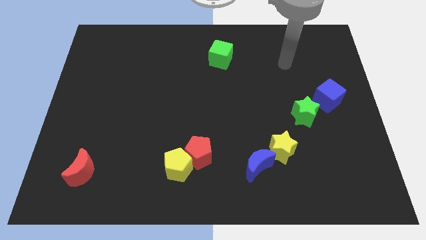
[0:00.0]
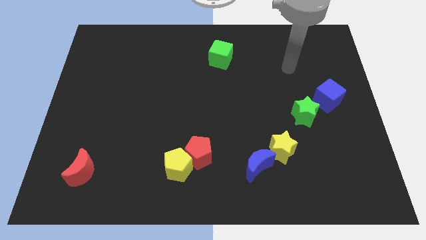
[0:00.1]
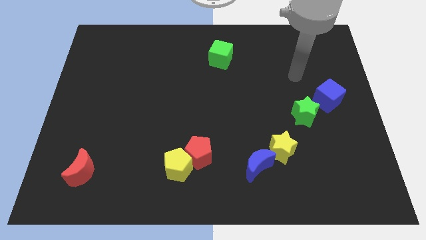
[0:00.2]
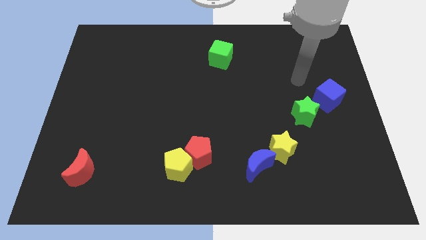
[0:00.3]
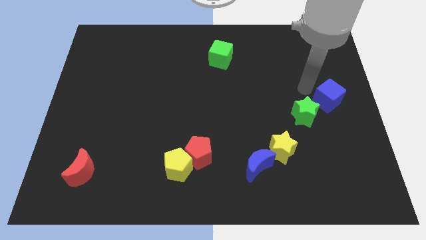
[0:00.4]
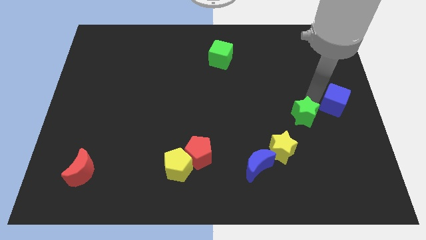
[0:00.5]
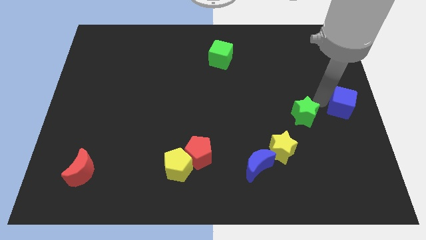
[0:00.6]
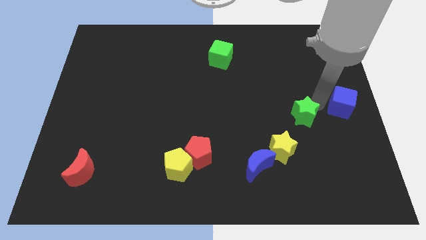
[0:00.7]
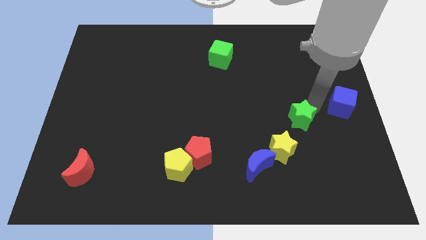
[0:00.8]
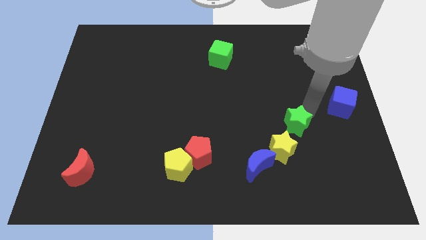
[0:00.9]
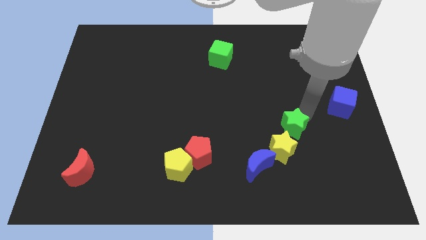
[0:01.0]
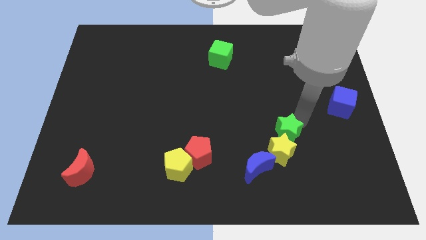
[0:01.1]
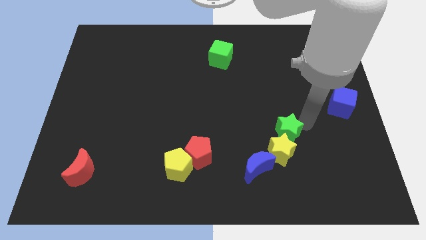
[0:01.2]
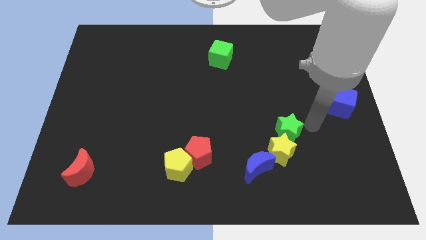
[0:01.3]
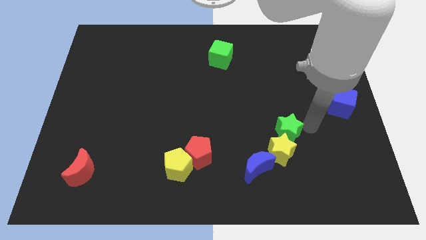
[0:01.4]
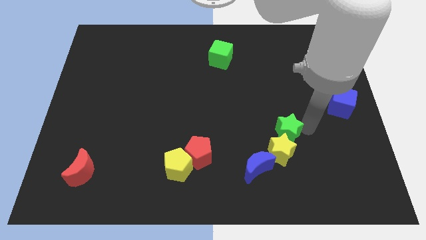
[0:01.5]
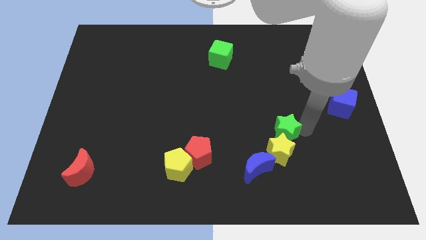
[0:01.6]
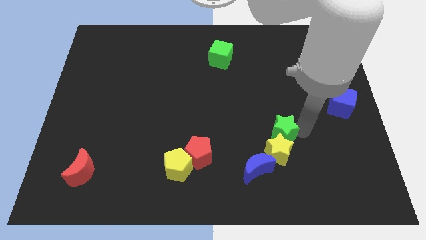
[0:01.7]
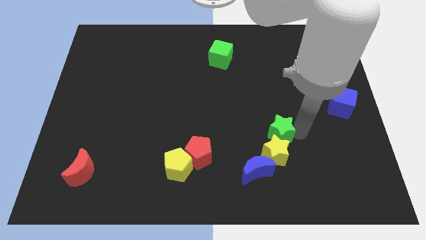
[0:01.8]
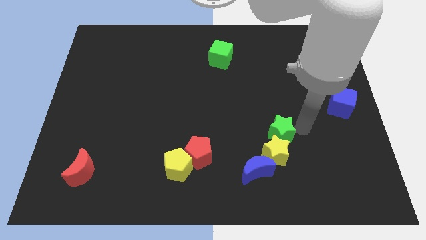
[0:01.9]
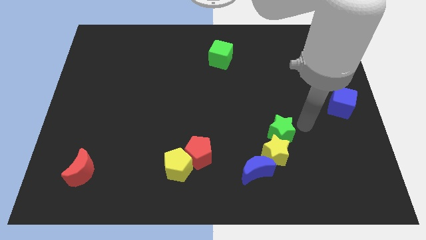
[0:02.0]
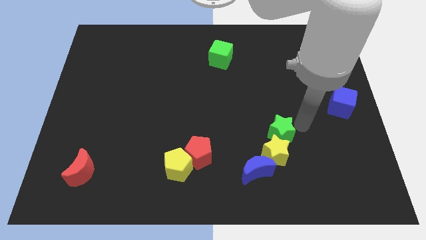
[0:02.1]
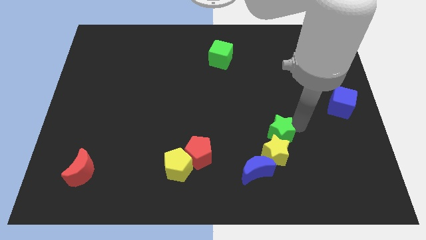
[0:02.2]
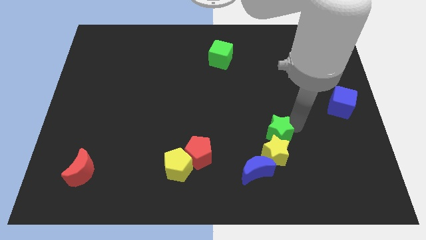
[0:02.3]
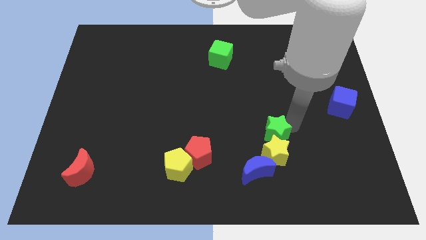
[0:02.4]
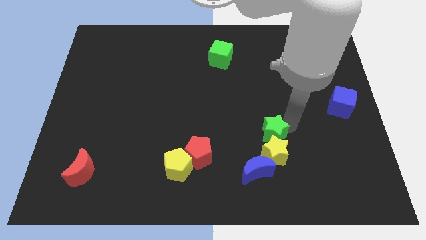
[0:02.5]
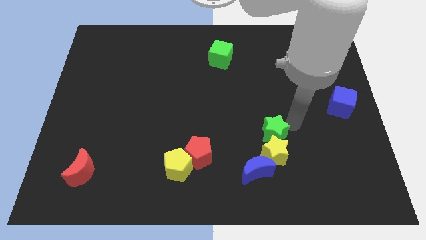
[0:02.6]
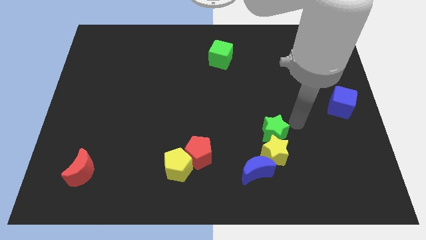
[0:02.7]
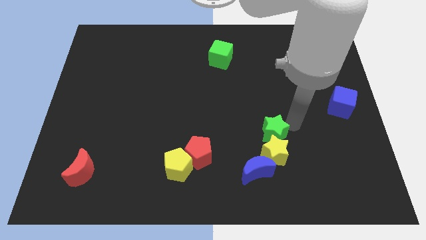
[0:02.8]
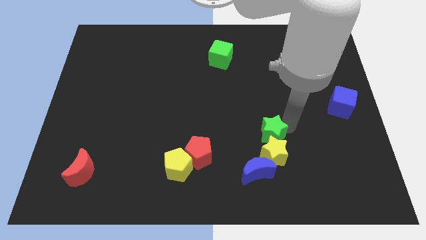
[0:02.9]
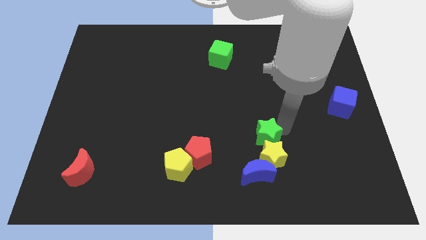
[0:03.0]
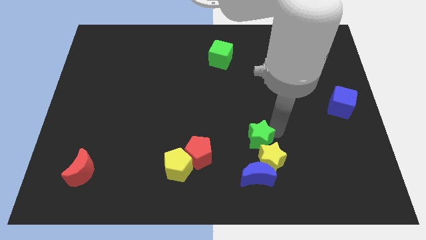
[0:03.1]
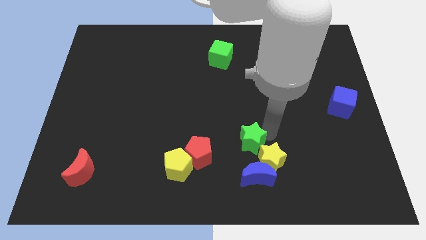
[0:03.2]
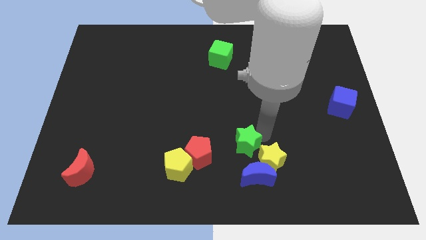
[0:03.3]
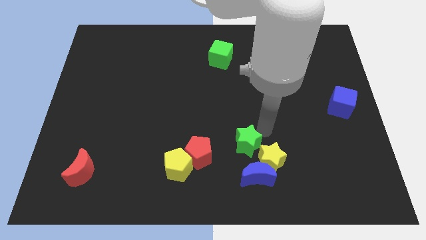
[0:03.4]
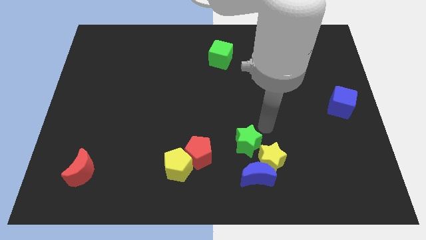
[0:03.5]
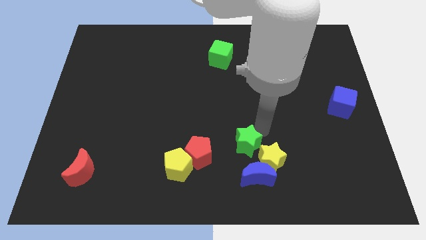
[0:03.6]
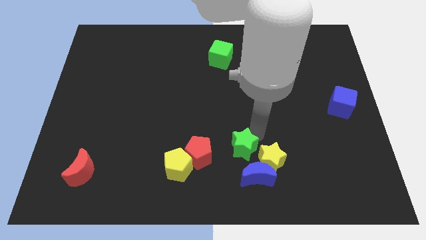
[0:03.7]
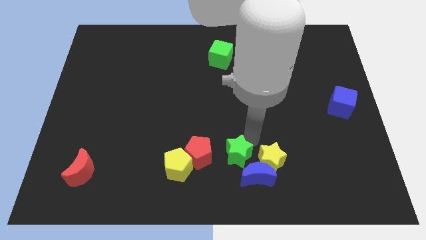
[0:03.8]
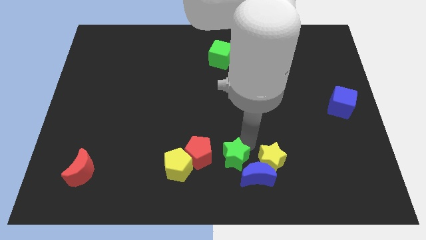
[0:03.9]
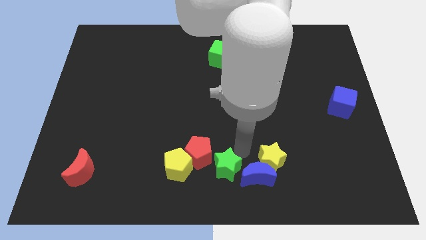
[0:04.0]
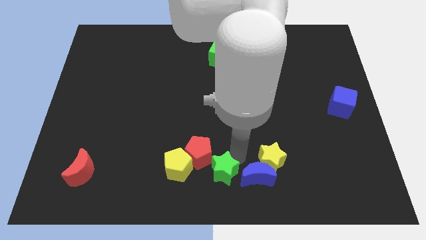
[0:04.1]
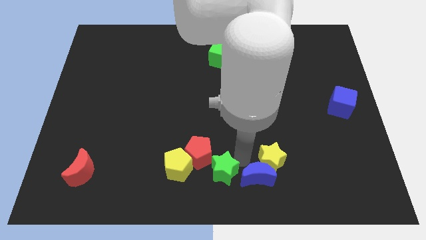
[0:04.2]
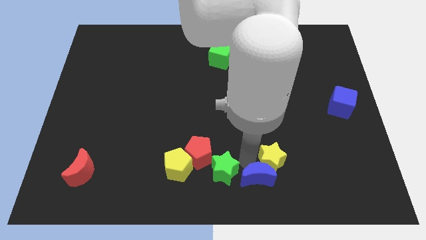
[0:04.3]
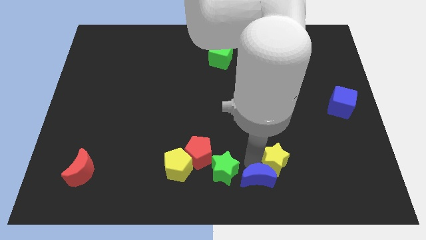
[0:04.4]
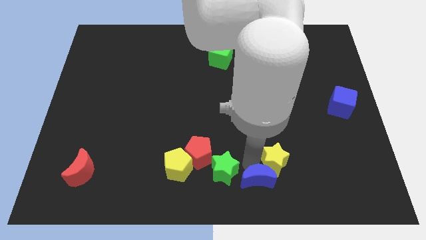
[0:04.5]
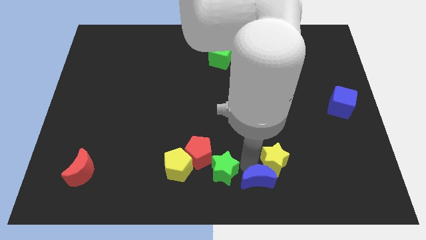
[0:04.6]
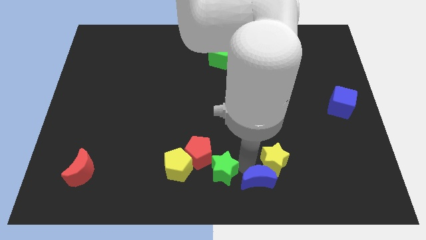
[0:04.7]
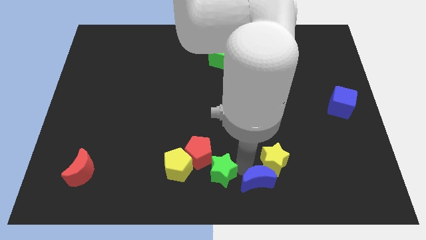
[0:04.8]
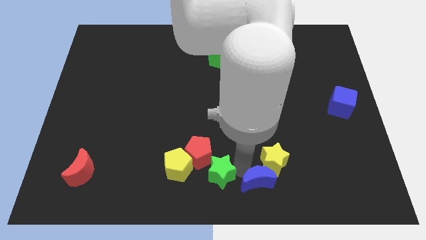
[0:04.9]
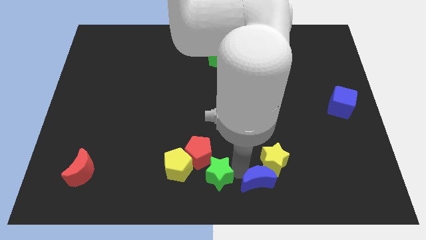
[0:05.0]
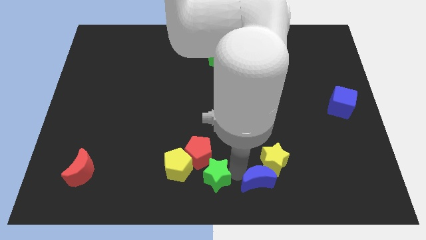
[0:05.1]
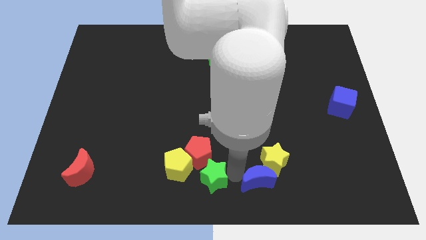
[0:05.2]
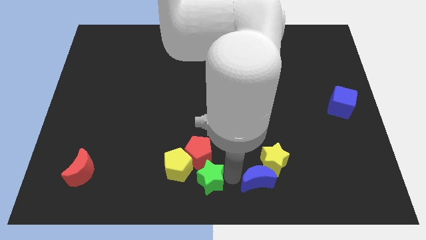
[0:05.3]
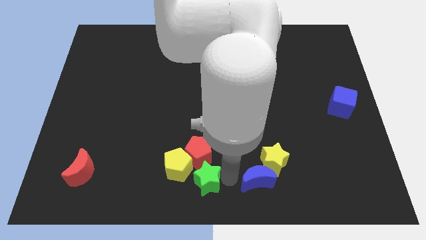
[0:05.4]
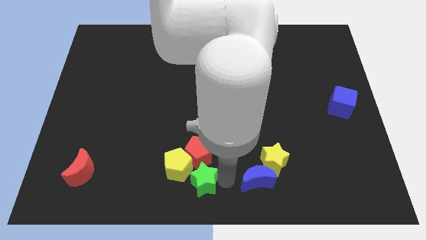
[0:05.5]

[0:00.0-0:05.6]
push the green star next to the yellow pentagon

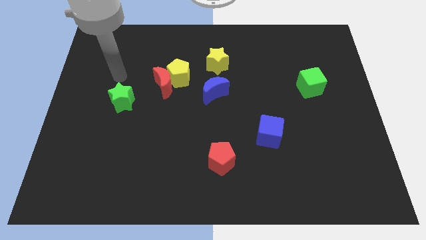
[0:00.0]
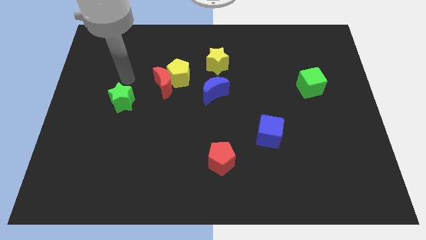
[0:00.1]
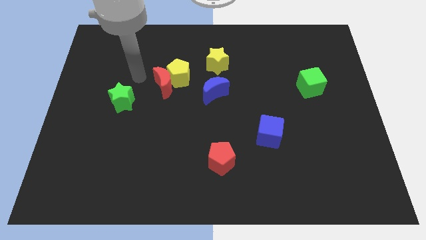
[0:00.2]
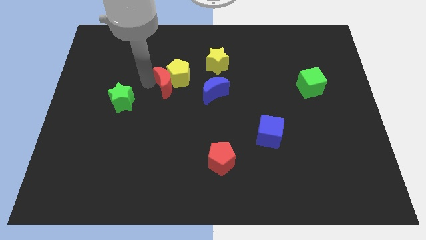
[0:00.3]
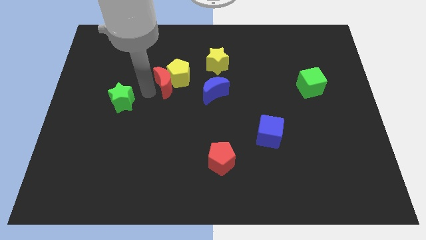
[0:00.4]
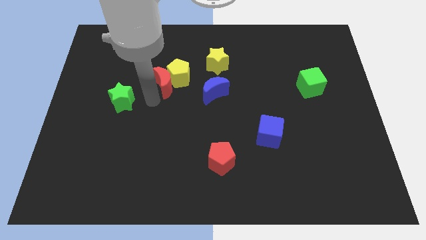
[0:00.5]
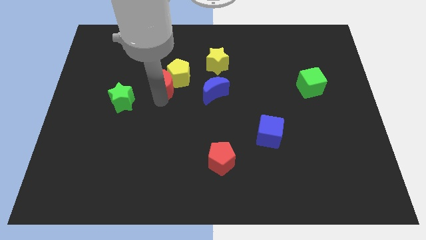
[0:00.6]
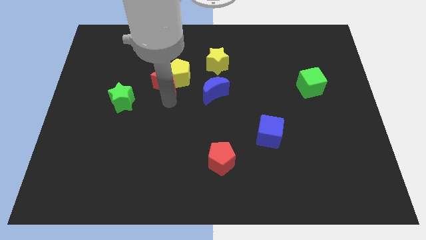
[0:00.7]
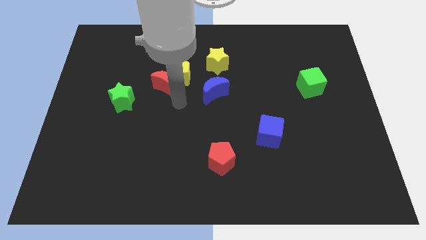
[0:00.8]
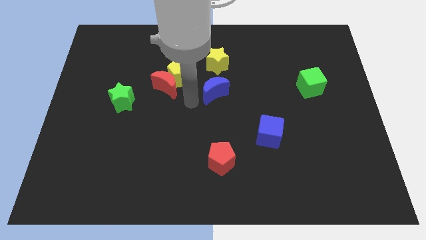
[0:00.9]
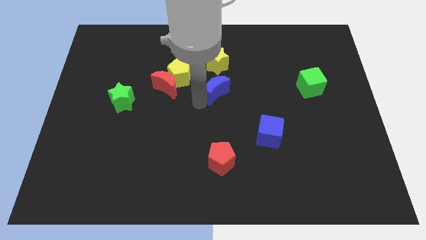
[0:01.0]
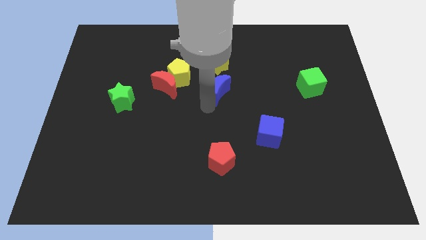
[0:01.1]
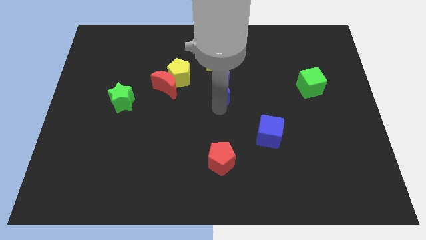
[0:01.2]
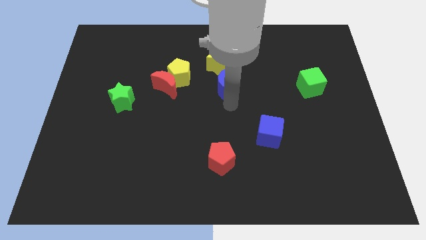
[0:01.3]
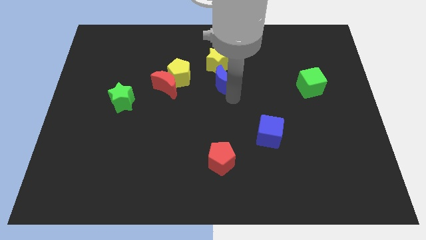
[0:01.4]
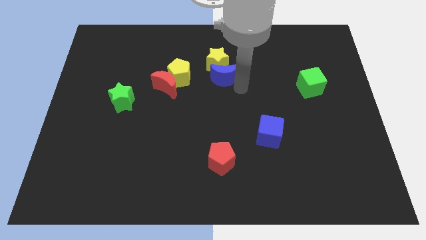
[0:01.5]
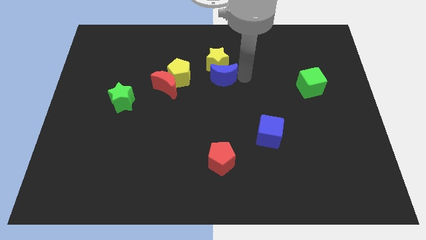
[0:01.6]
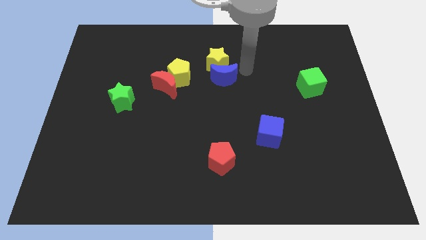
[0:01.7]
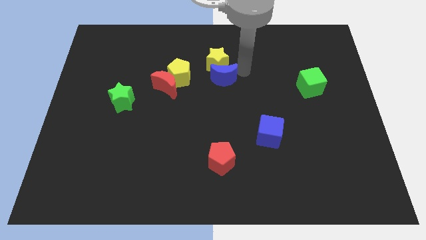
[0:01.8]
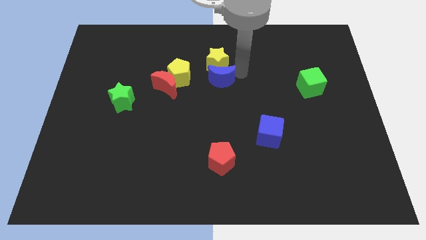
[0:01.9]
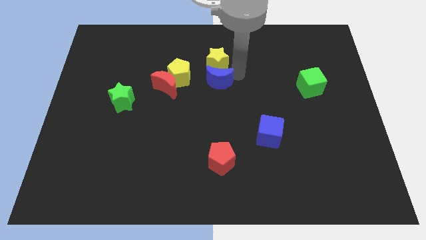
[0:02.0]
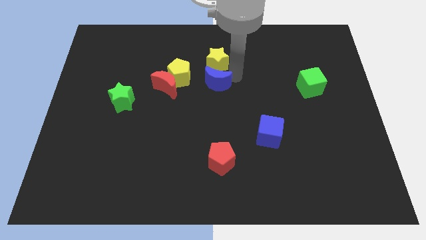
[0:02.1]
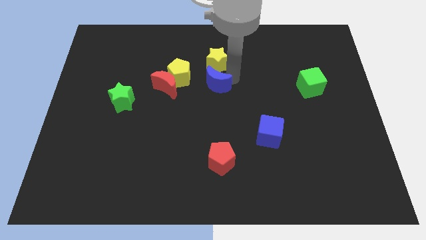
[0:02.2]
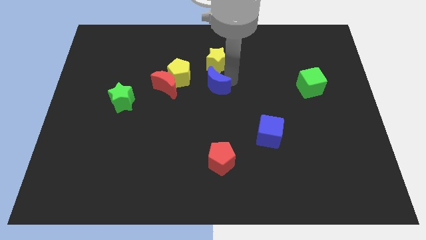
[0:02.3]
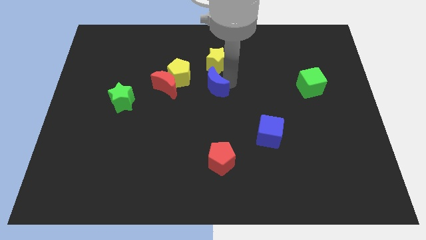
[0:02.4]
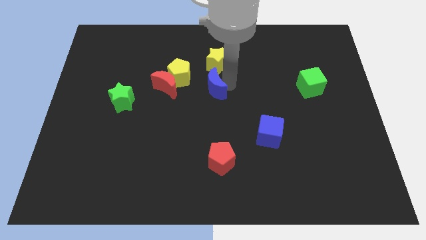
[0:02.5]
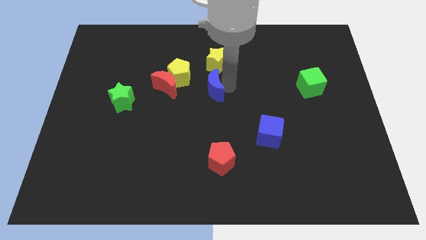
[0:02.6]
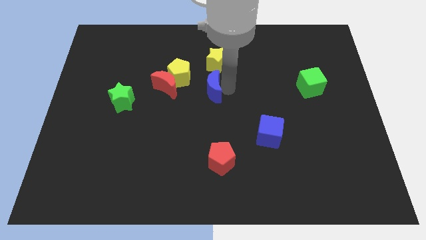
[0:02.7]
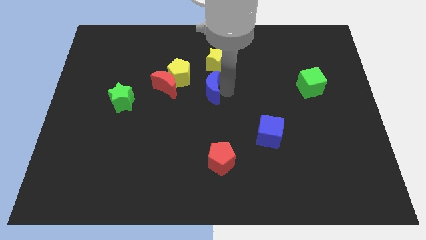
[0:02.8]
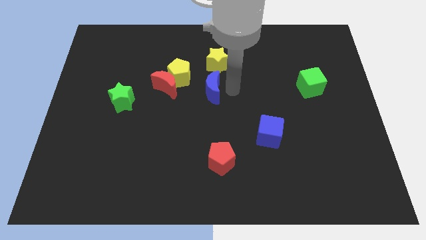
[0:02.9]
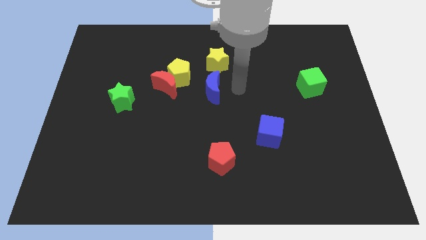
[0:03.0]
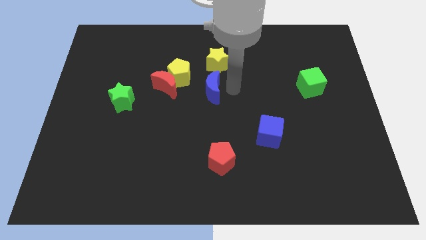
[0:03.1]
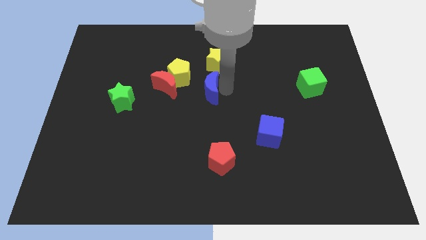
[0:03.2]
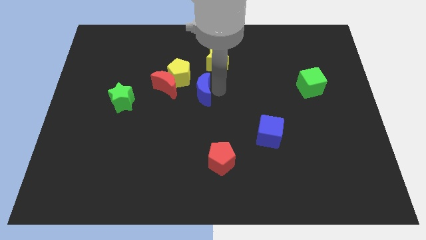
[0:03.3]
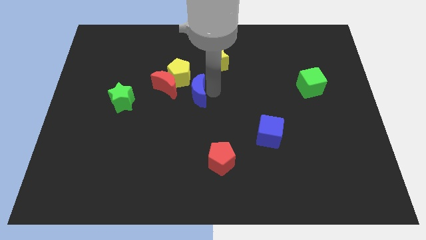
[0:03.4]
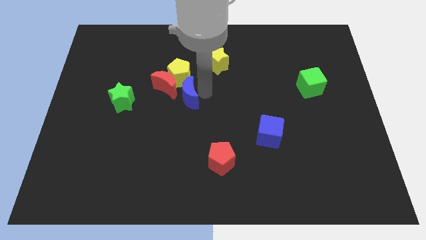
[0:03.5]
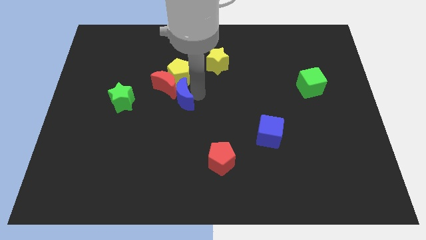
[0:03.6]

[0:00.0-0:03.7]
slide the blue moon next to the red moon
